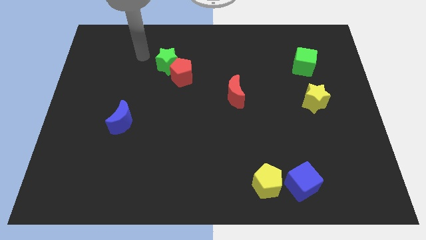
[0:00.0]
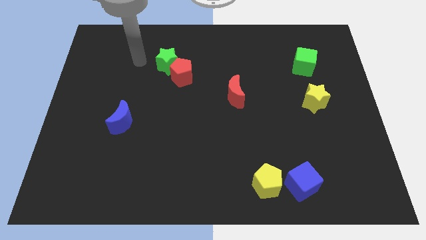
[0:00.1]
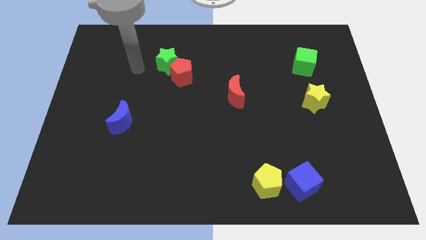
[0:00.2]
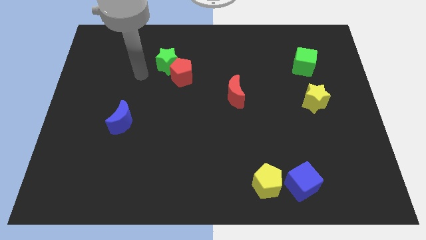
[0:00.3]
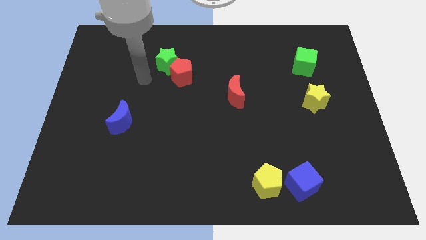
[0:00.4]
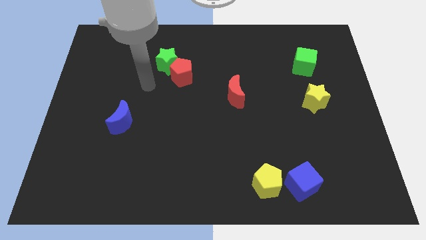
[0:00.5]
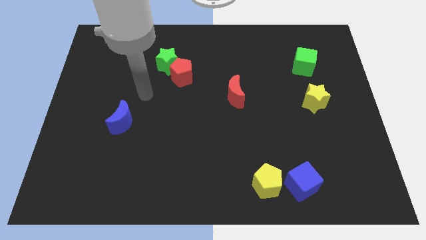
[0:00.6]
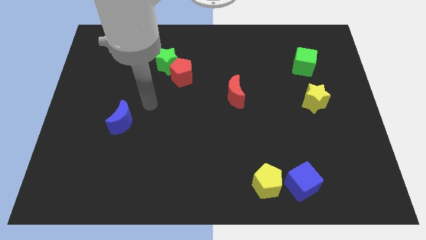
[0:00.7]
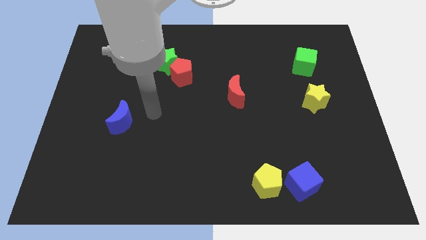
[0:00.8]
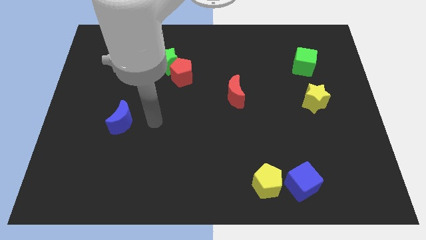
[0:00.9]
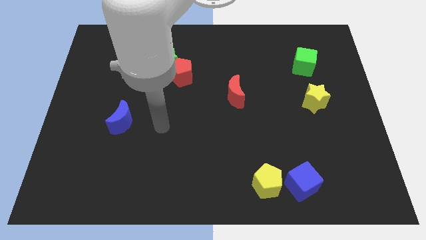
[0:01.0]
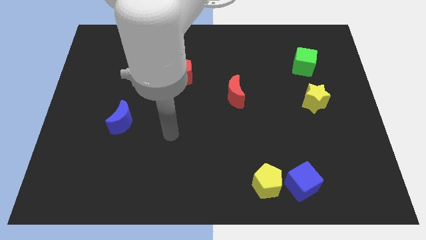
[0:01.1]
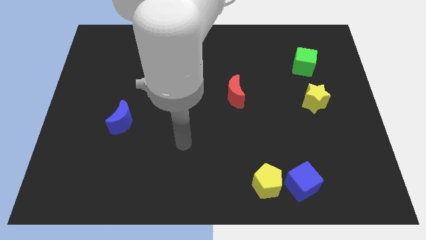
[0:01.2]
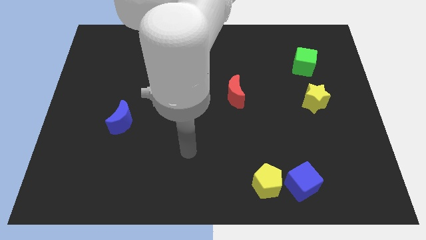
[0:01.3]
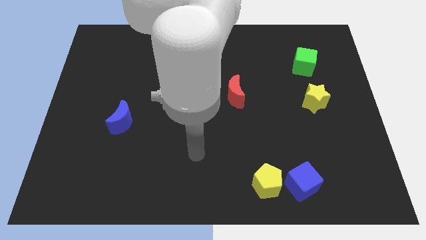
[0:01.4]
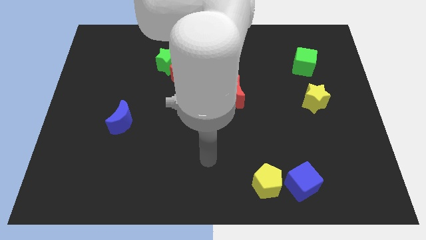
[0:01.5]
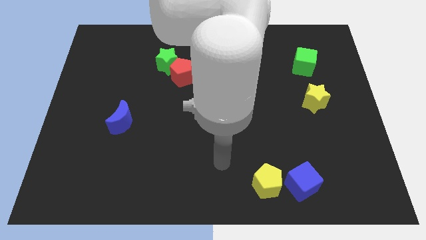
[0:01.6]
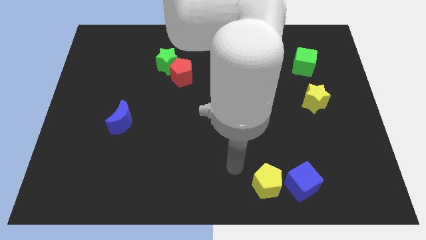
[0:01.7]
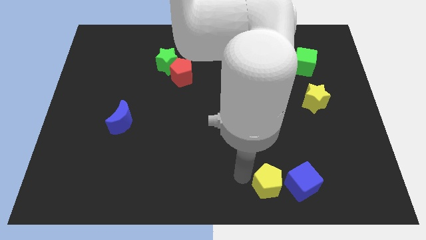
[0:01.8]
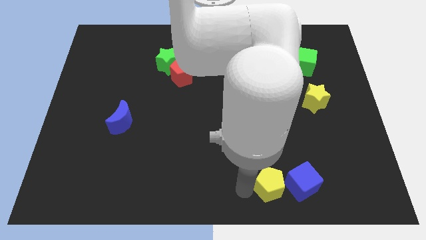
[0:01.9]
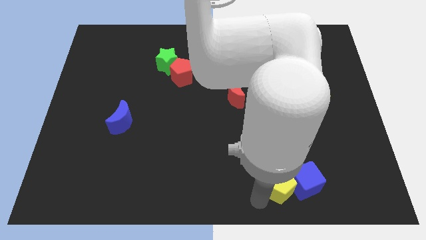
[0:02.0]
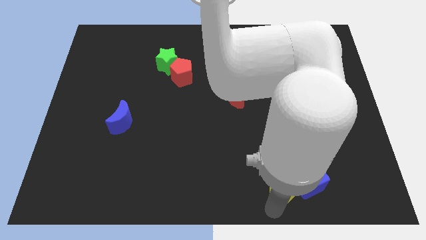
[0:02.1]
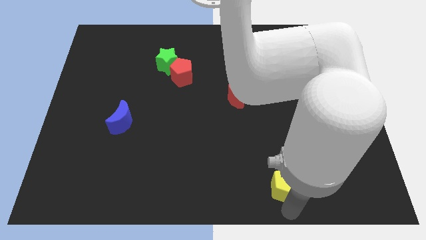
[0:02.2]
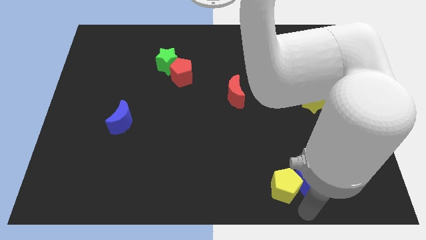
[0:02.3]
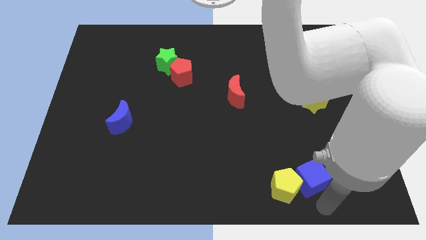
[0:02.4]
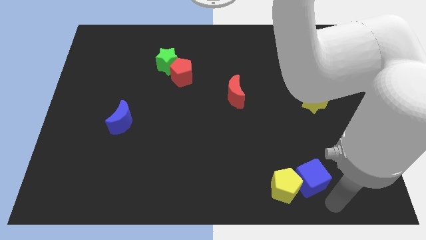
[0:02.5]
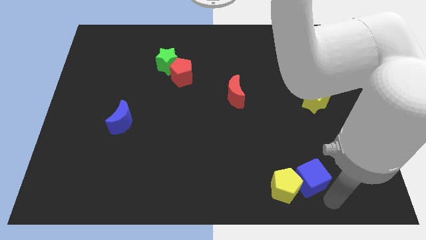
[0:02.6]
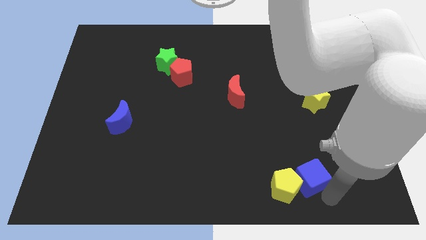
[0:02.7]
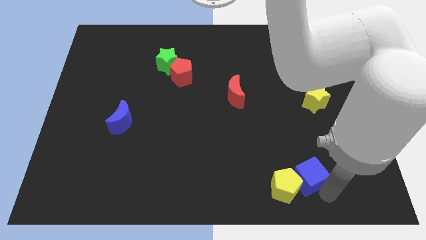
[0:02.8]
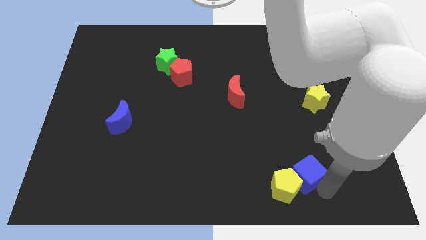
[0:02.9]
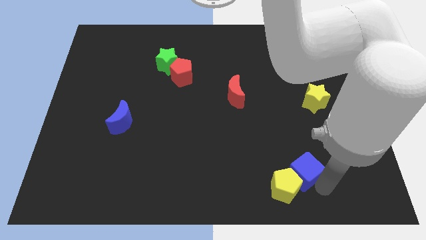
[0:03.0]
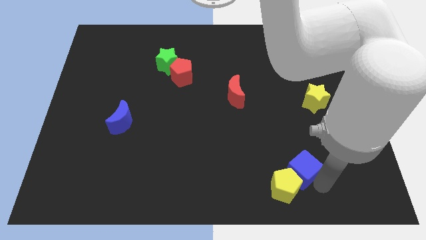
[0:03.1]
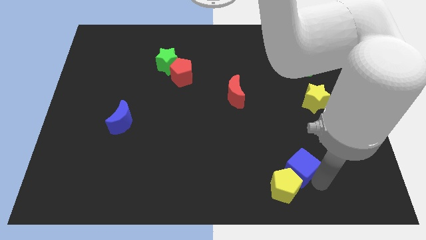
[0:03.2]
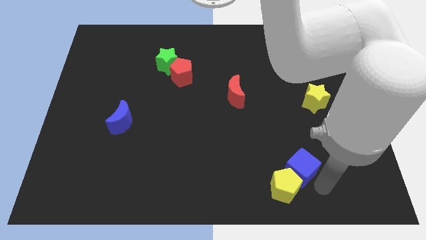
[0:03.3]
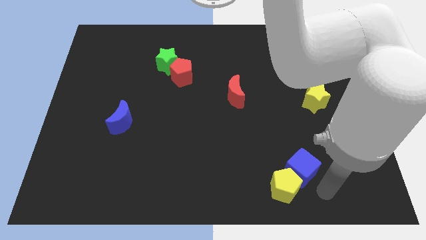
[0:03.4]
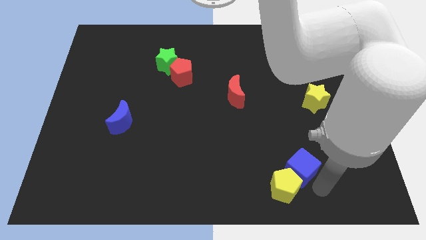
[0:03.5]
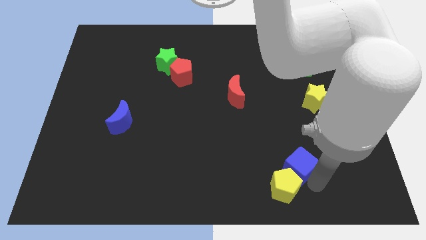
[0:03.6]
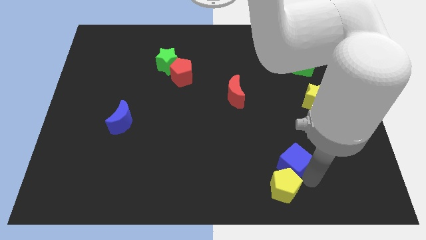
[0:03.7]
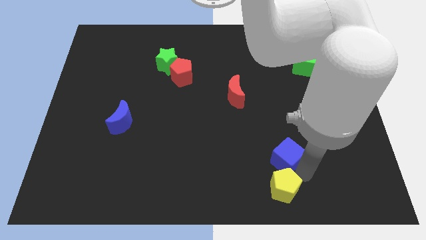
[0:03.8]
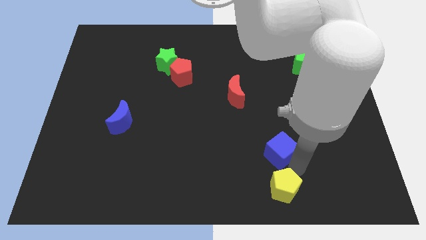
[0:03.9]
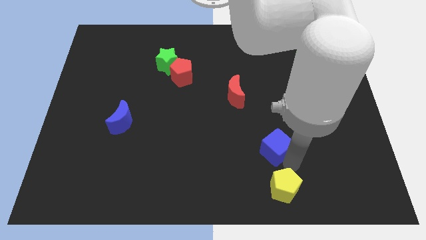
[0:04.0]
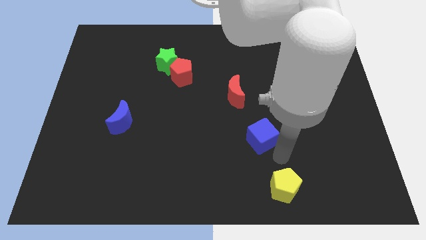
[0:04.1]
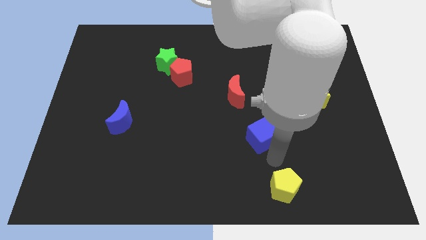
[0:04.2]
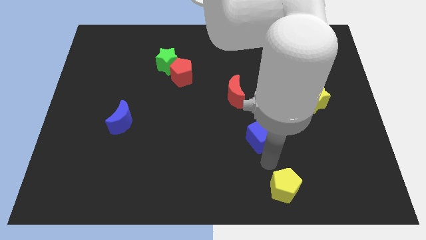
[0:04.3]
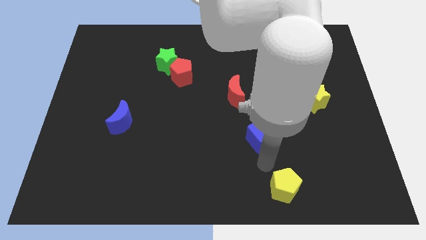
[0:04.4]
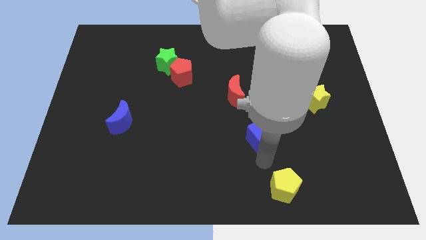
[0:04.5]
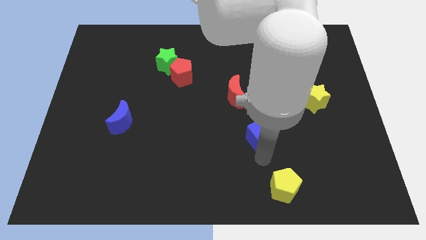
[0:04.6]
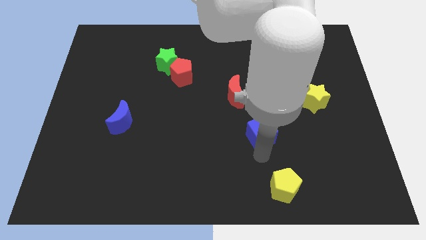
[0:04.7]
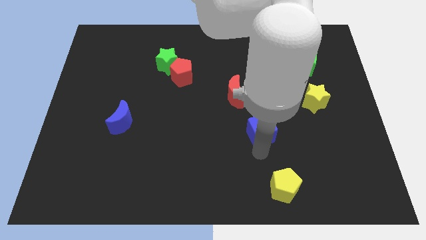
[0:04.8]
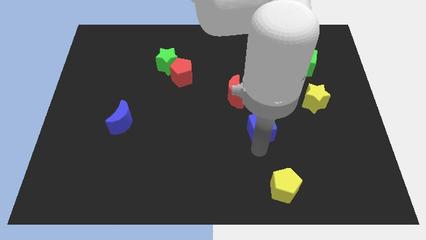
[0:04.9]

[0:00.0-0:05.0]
slide the blue cube to the bottom right of the red moon

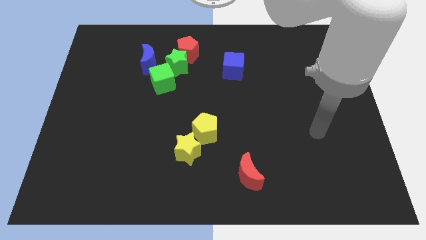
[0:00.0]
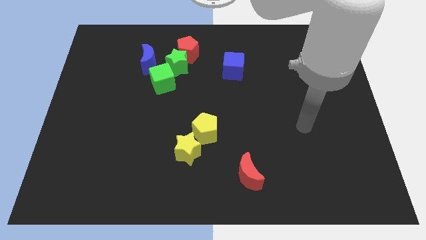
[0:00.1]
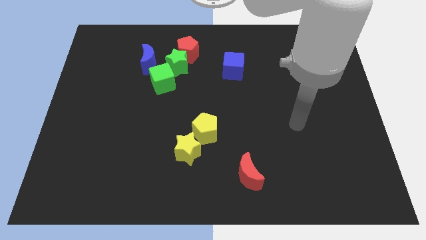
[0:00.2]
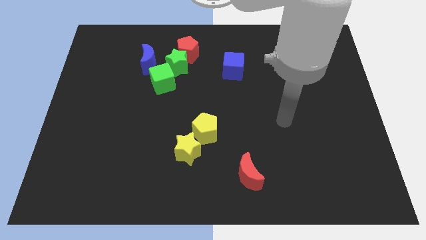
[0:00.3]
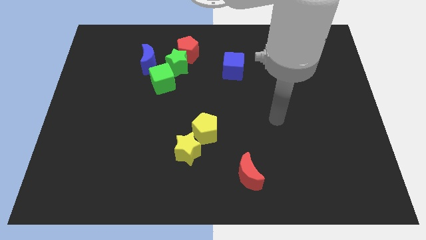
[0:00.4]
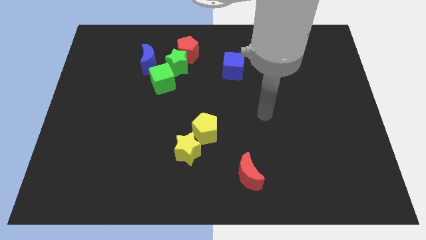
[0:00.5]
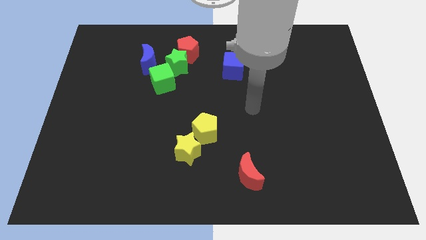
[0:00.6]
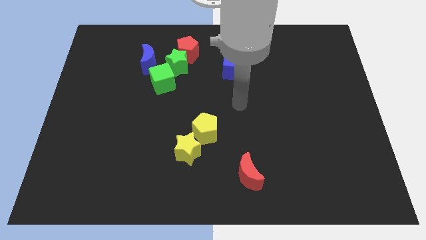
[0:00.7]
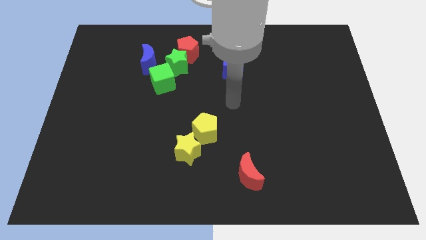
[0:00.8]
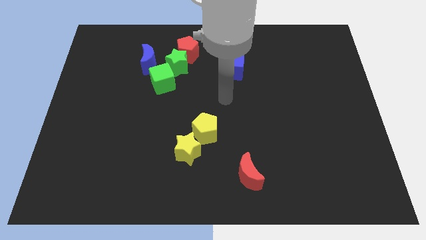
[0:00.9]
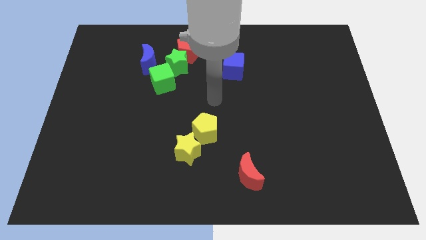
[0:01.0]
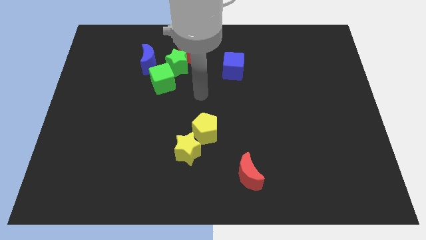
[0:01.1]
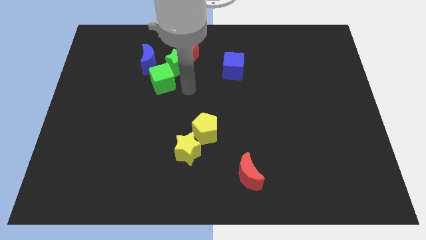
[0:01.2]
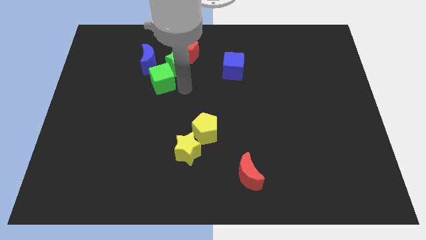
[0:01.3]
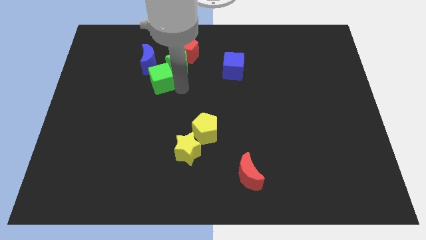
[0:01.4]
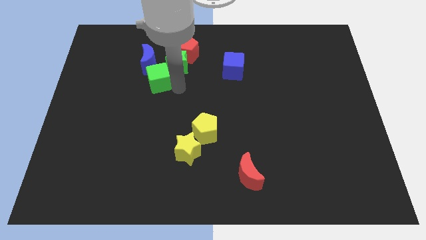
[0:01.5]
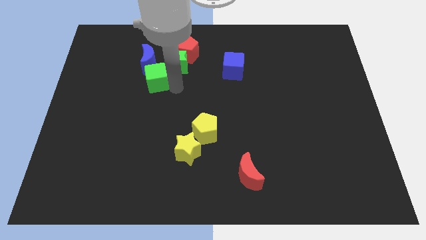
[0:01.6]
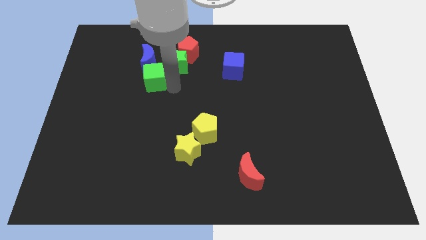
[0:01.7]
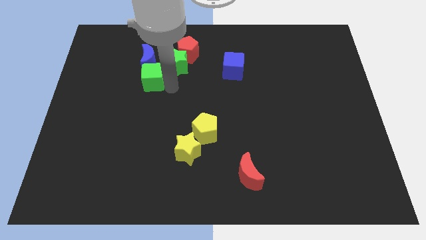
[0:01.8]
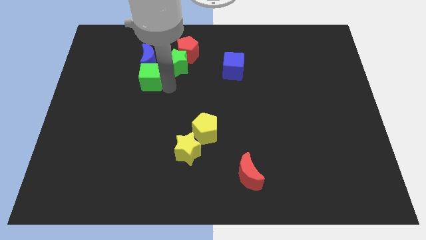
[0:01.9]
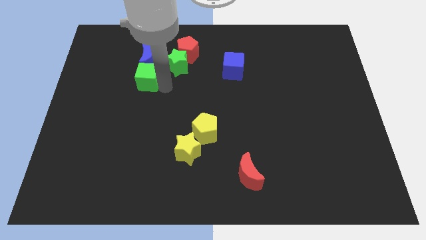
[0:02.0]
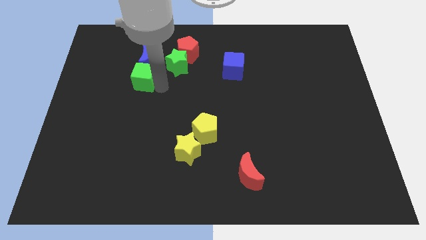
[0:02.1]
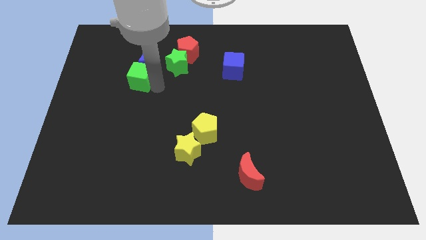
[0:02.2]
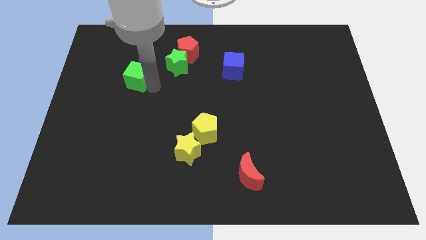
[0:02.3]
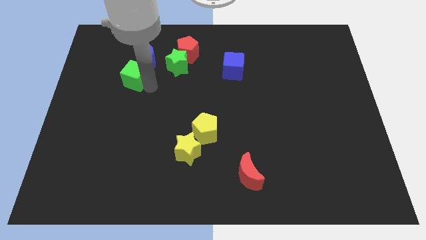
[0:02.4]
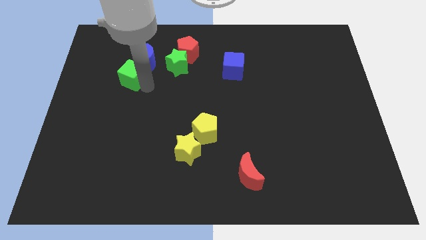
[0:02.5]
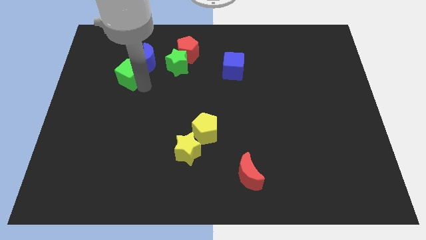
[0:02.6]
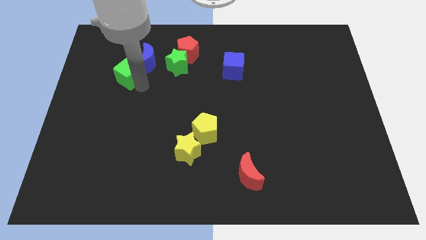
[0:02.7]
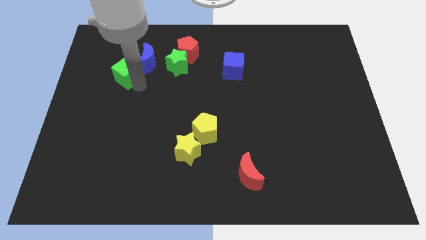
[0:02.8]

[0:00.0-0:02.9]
move the green cube just left of the blue moon
